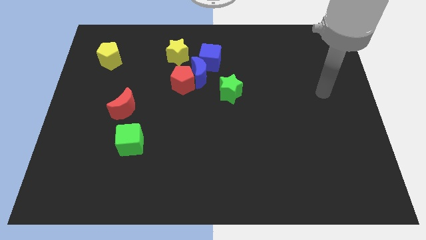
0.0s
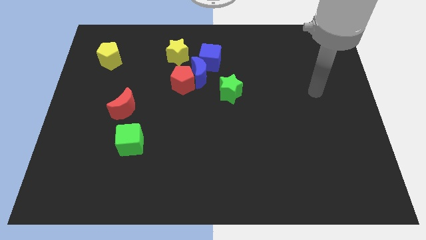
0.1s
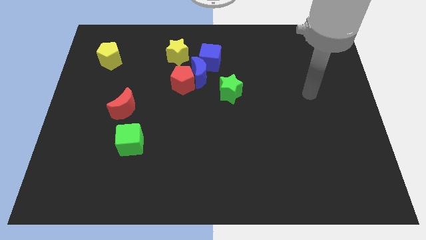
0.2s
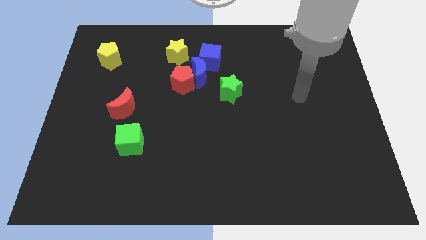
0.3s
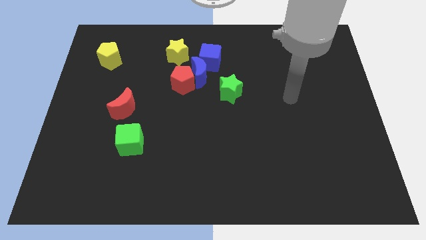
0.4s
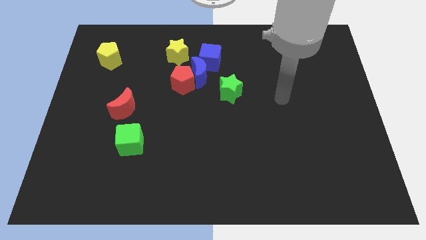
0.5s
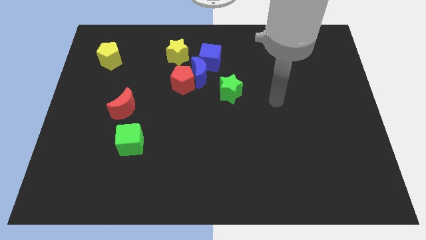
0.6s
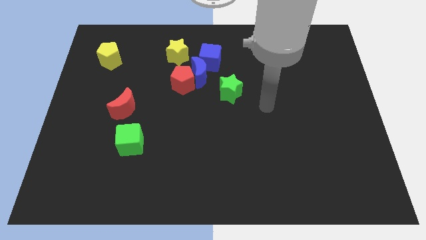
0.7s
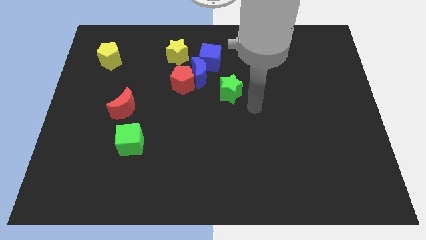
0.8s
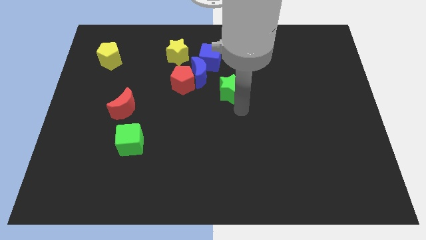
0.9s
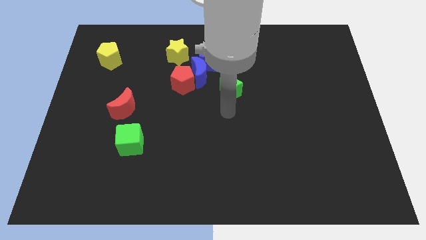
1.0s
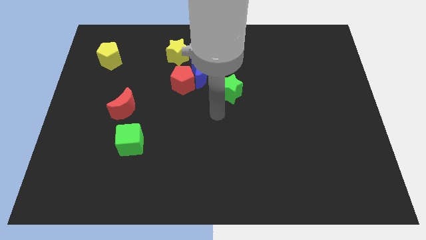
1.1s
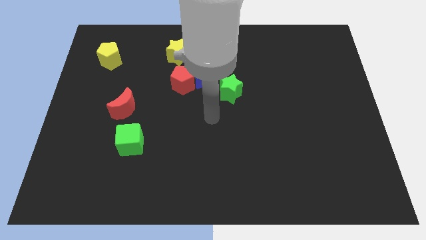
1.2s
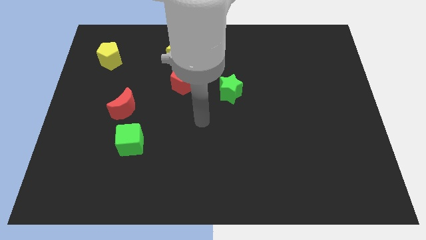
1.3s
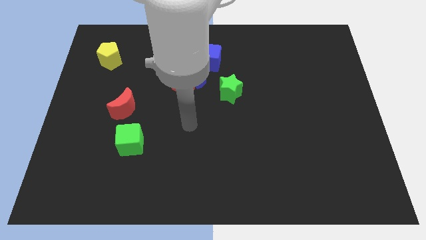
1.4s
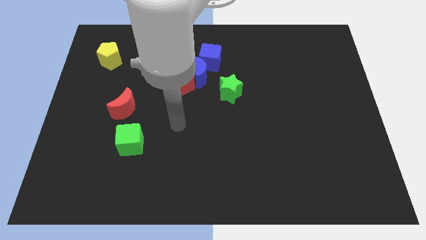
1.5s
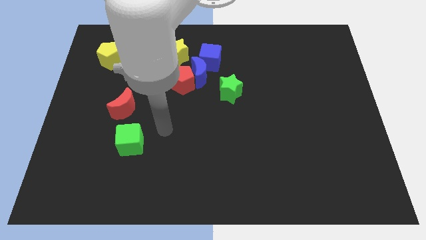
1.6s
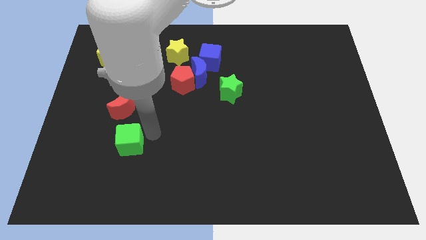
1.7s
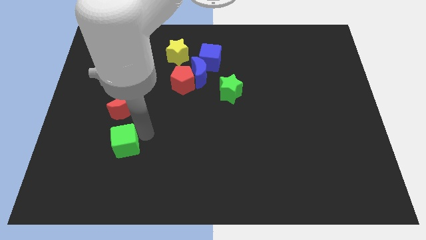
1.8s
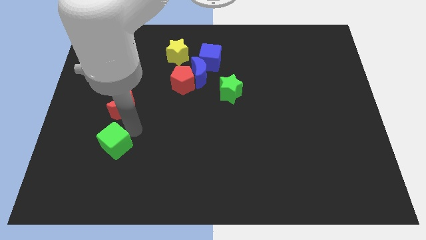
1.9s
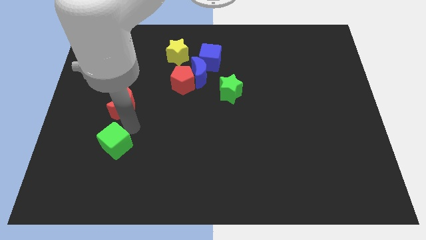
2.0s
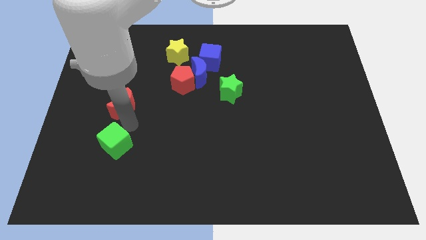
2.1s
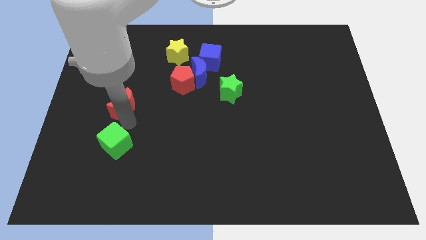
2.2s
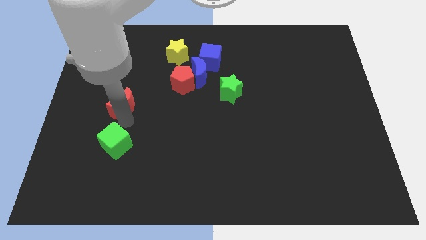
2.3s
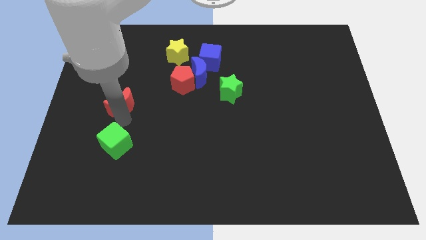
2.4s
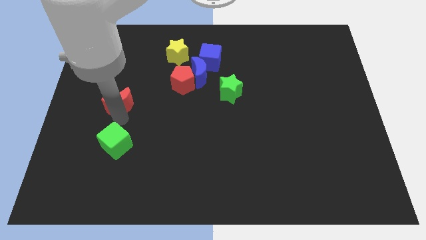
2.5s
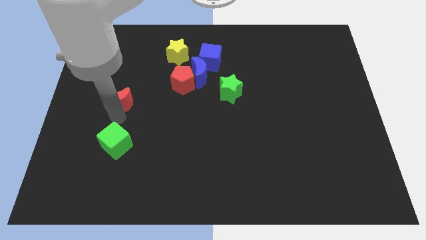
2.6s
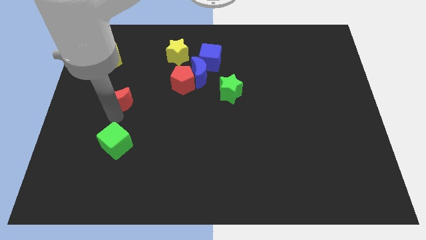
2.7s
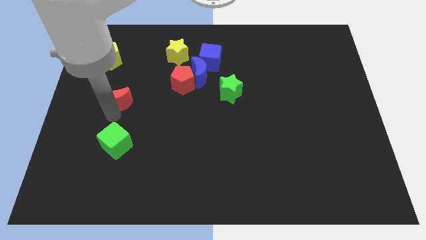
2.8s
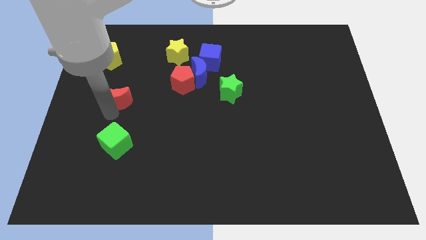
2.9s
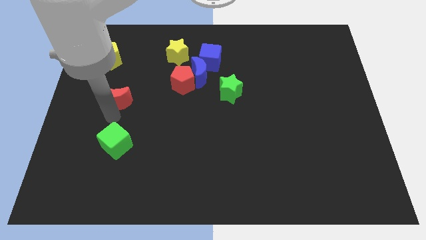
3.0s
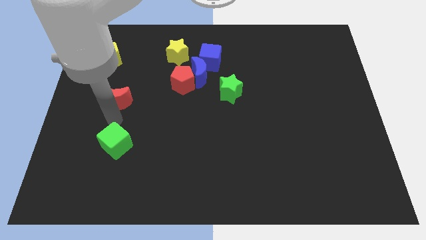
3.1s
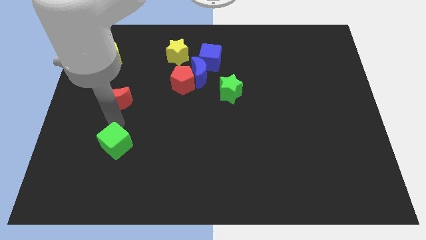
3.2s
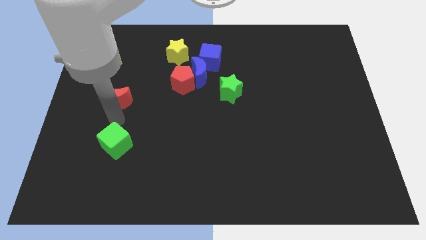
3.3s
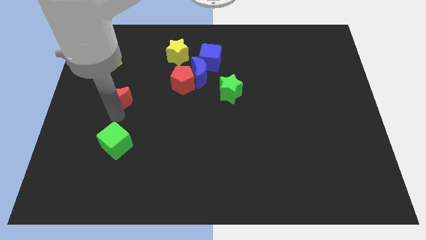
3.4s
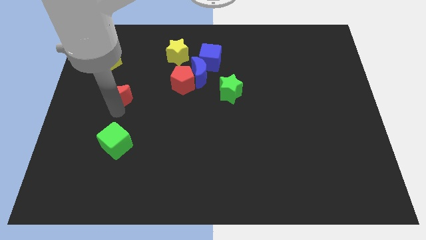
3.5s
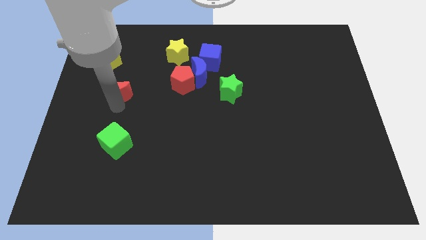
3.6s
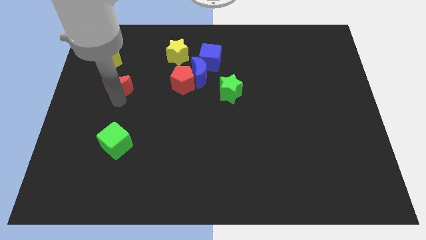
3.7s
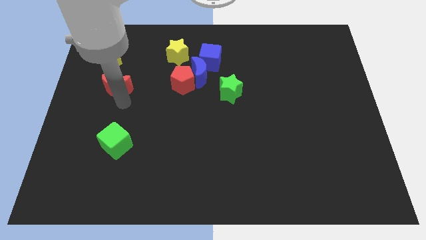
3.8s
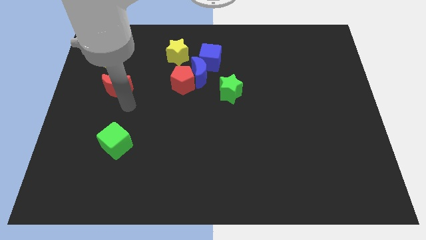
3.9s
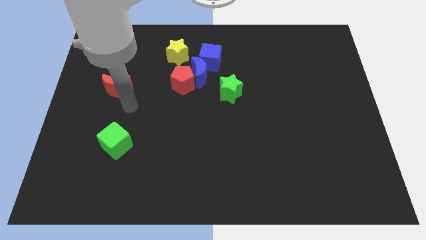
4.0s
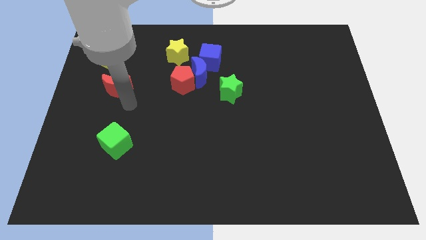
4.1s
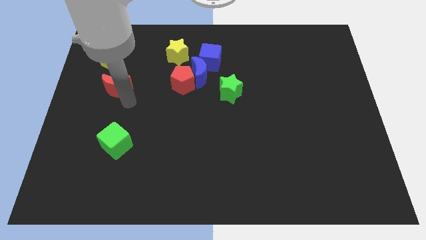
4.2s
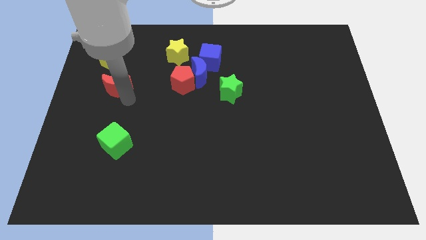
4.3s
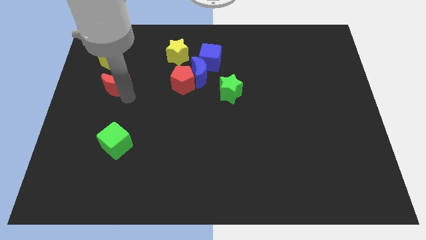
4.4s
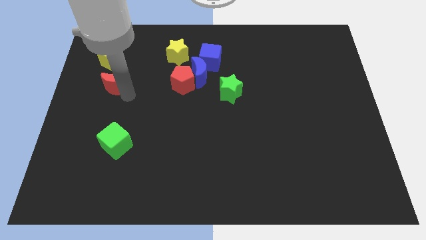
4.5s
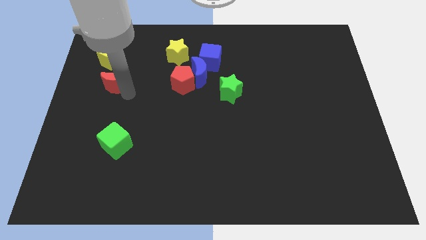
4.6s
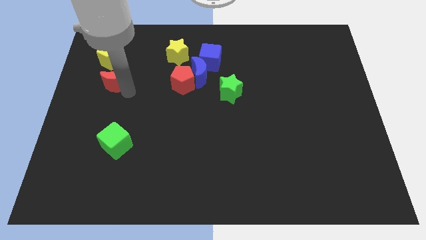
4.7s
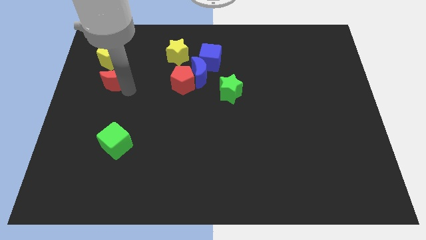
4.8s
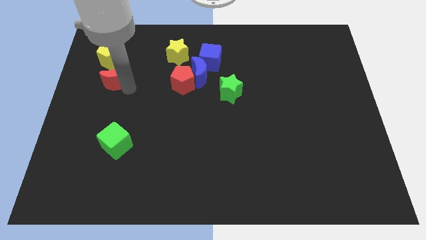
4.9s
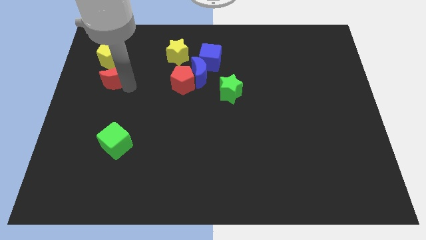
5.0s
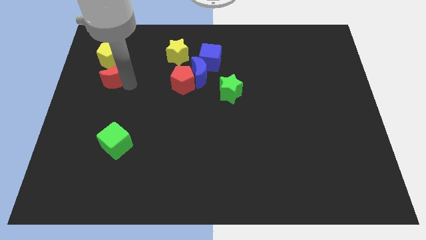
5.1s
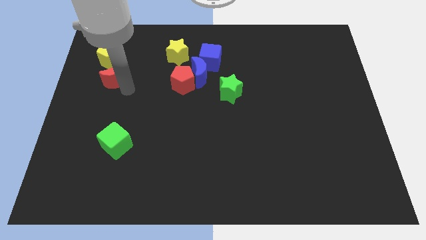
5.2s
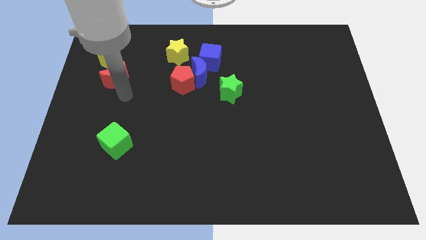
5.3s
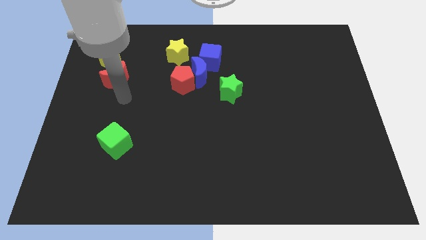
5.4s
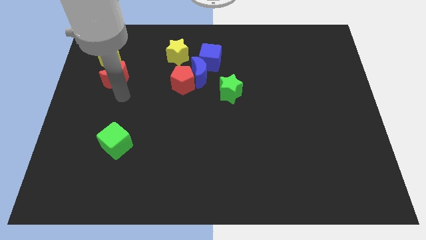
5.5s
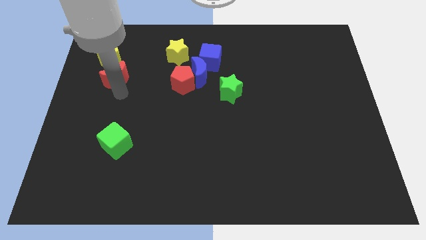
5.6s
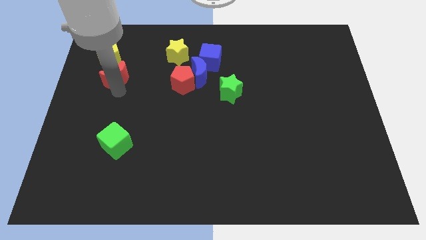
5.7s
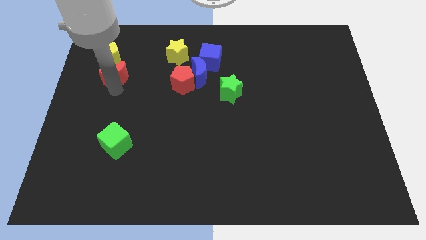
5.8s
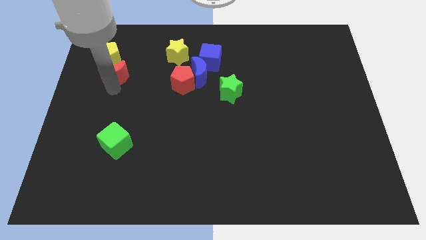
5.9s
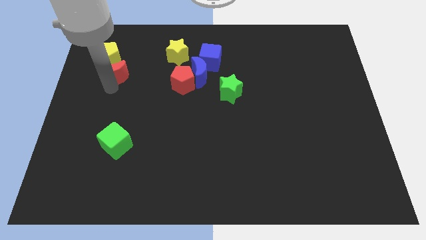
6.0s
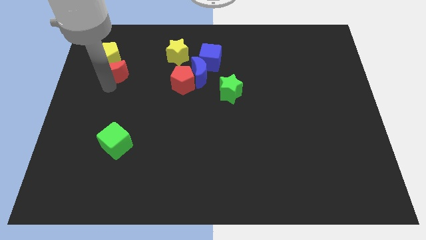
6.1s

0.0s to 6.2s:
move the red moon towards the yellow pentagon

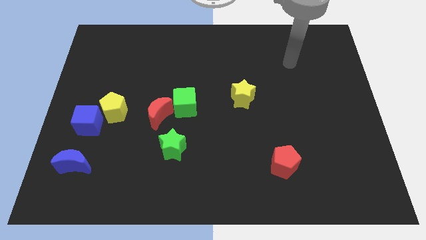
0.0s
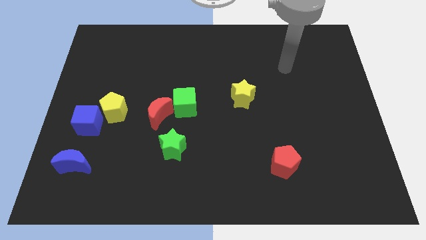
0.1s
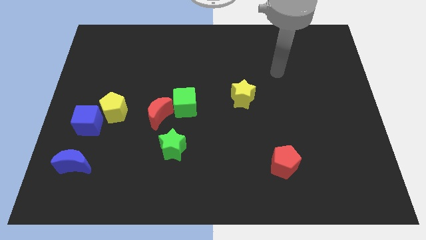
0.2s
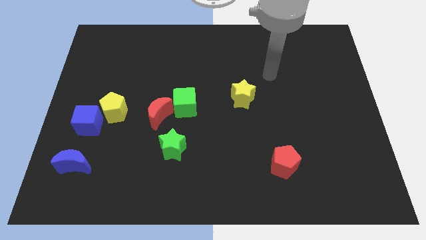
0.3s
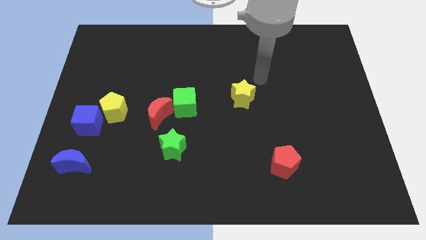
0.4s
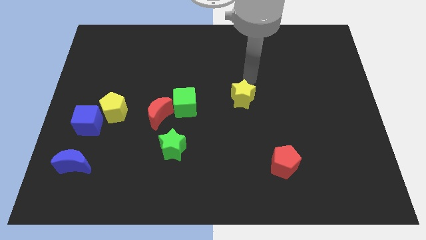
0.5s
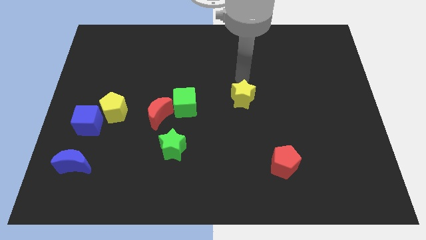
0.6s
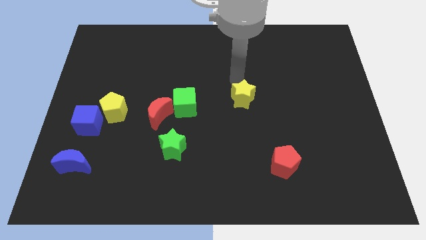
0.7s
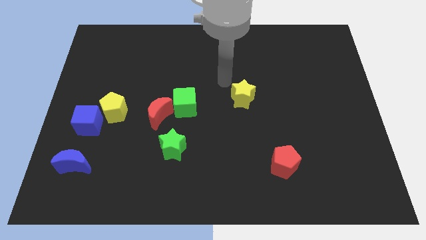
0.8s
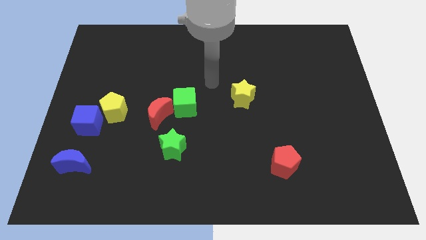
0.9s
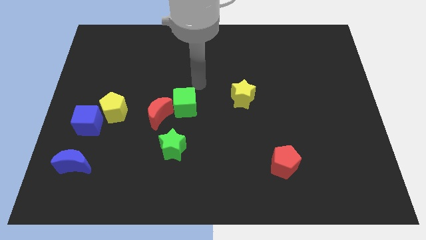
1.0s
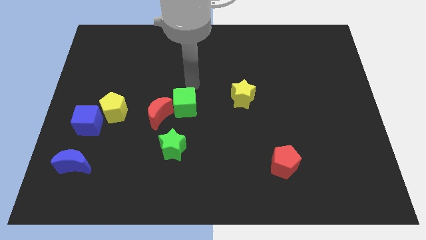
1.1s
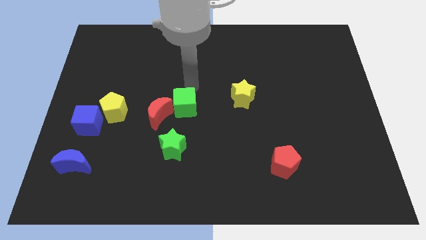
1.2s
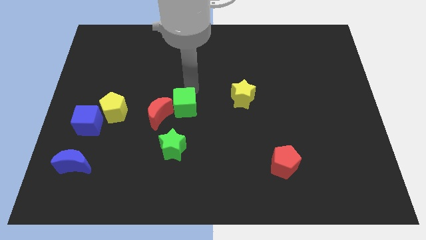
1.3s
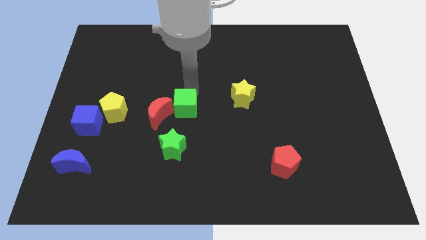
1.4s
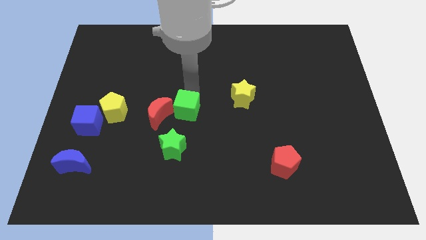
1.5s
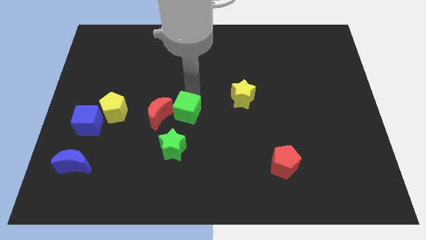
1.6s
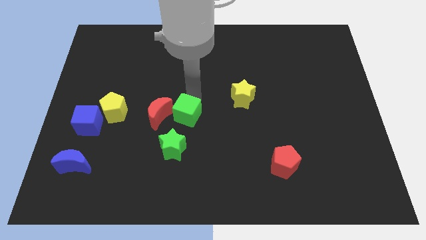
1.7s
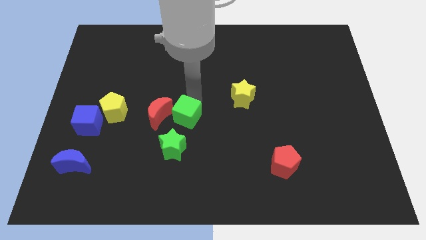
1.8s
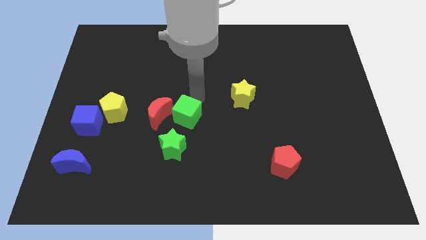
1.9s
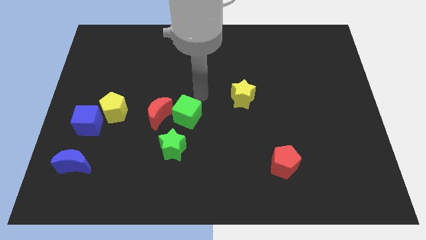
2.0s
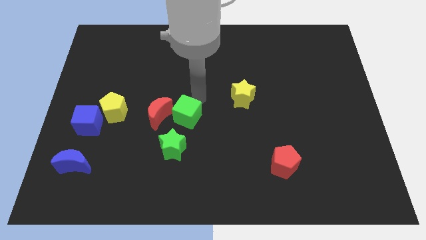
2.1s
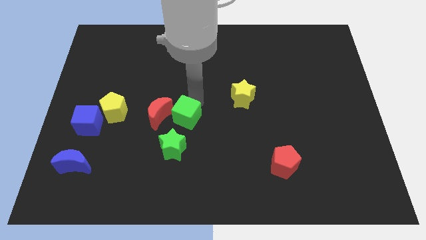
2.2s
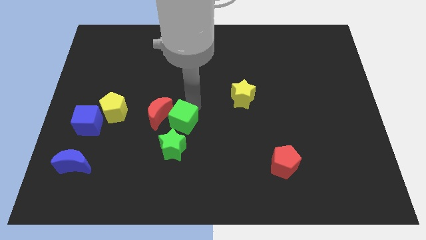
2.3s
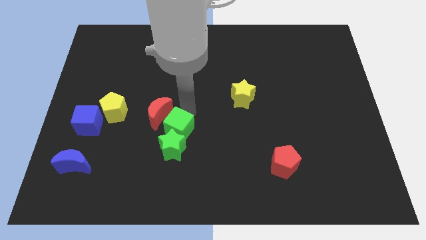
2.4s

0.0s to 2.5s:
slide the green cube to the green star
